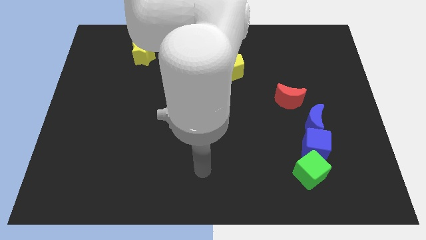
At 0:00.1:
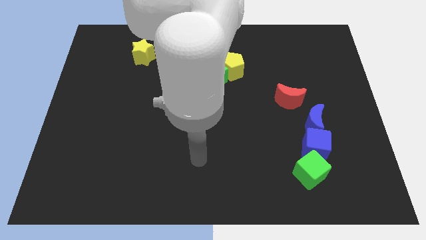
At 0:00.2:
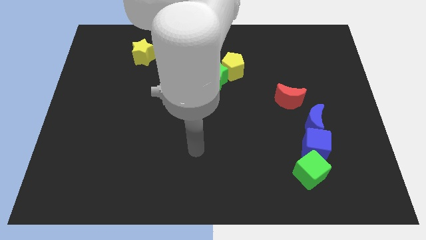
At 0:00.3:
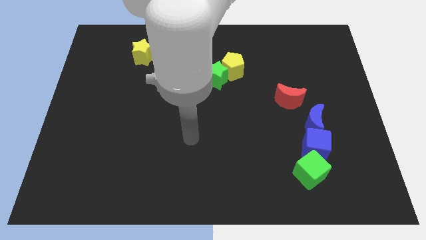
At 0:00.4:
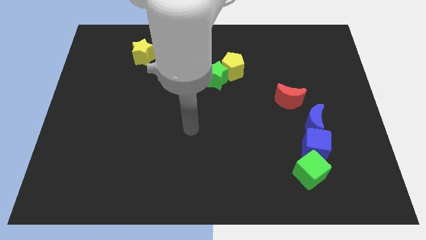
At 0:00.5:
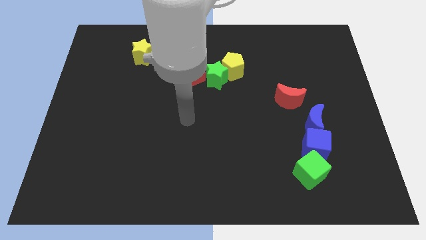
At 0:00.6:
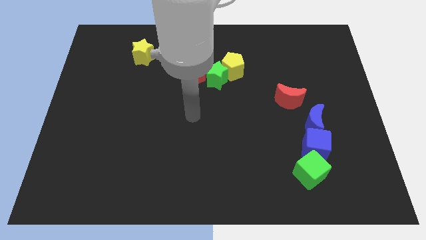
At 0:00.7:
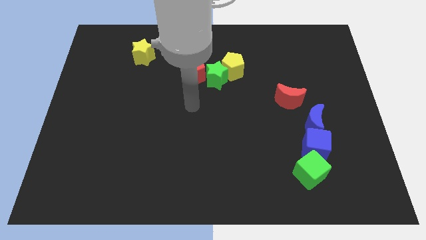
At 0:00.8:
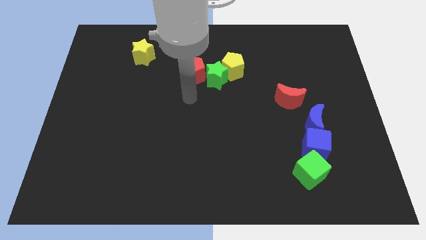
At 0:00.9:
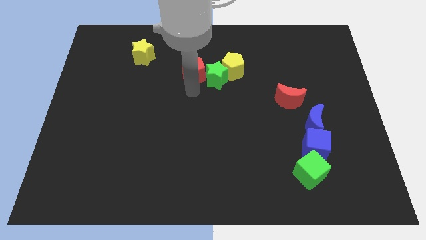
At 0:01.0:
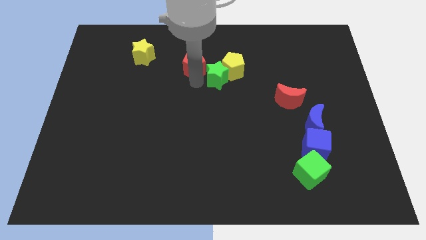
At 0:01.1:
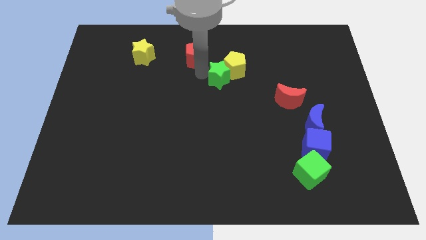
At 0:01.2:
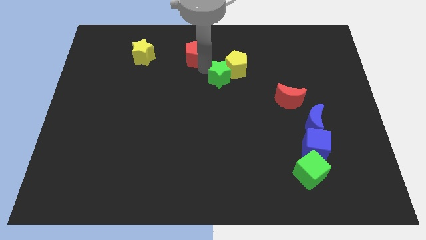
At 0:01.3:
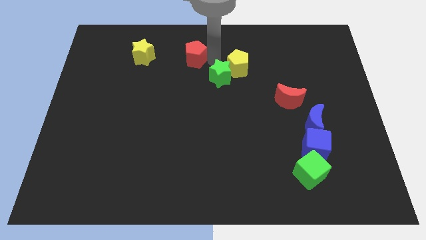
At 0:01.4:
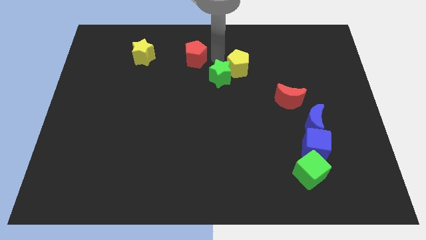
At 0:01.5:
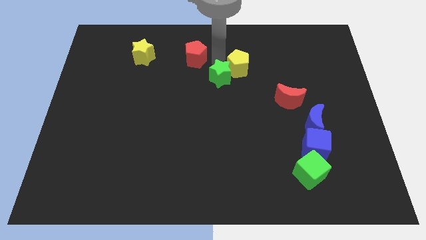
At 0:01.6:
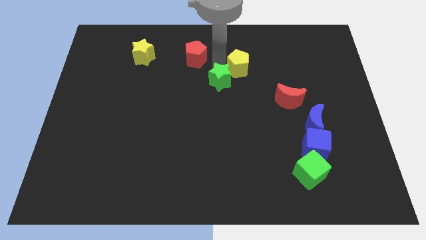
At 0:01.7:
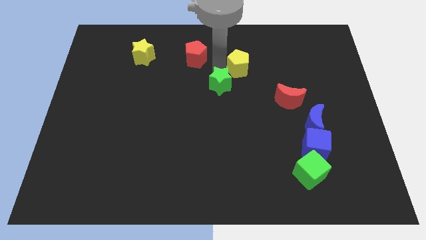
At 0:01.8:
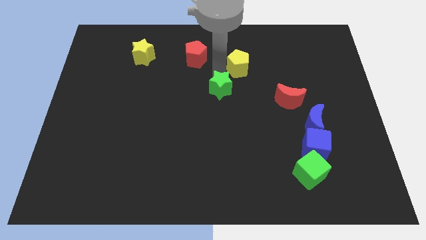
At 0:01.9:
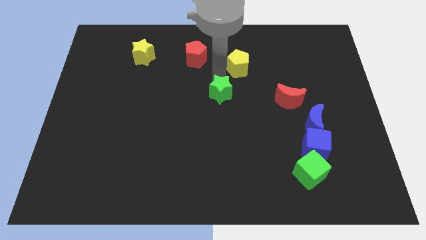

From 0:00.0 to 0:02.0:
move the green star away from the yellow pentagon and red pentagon

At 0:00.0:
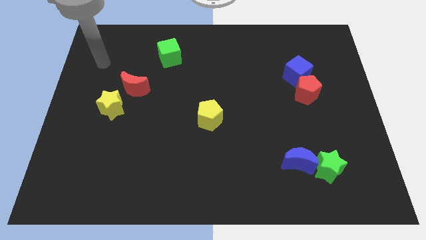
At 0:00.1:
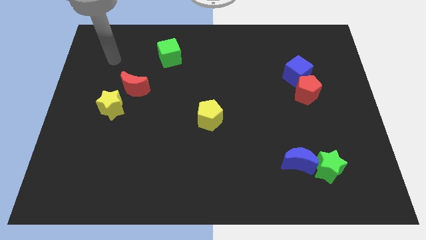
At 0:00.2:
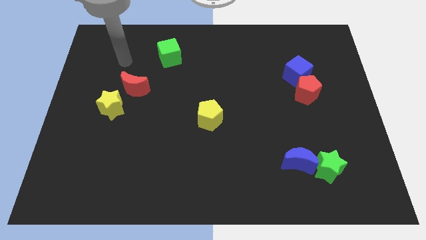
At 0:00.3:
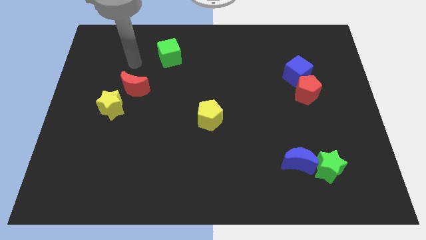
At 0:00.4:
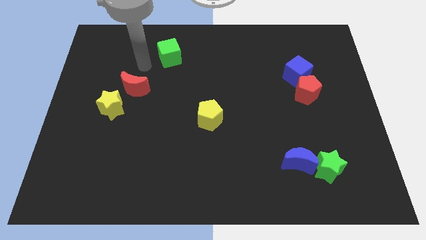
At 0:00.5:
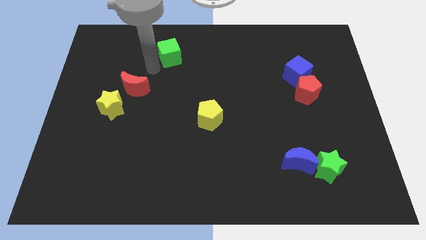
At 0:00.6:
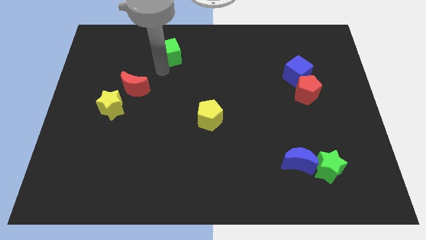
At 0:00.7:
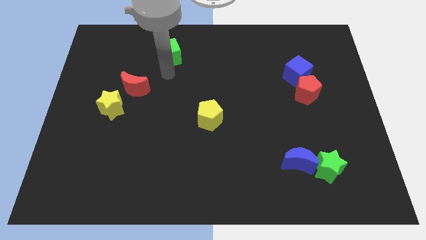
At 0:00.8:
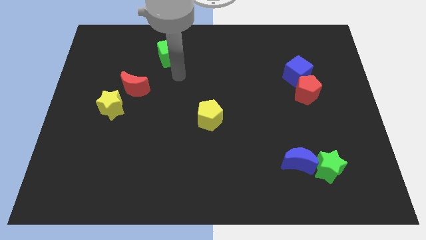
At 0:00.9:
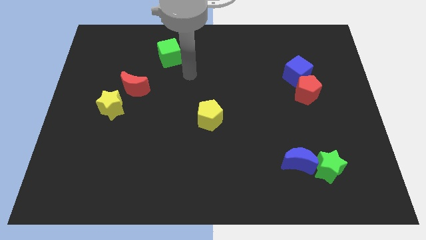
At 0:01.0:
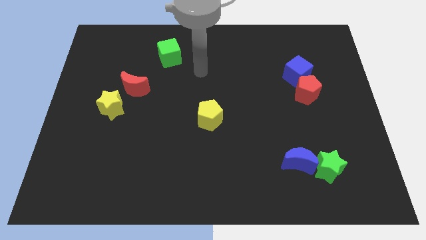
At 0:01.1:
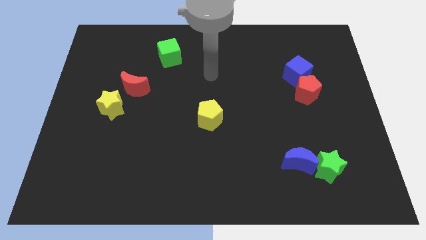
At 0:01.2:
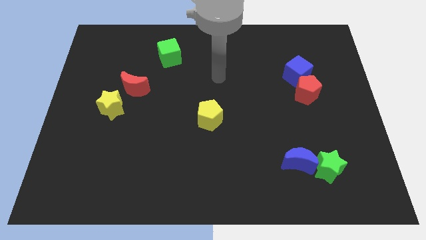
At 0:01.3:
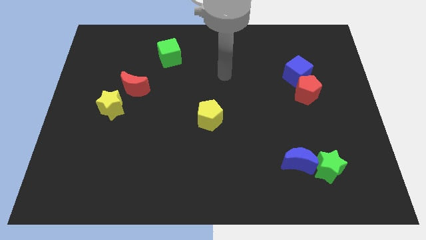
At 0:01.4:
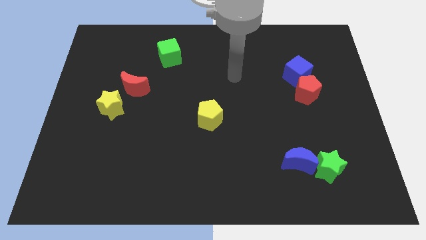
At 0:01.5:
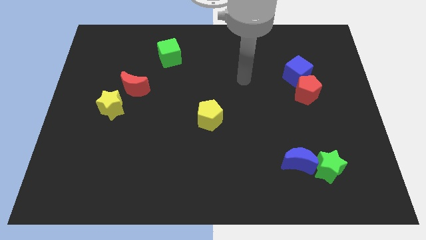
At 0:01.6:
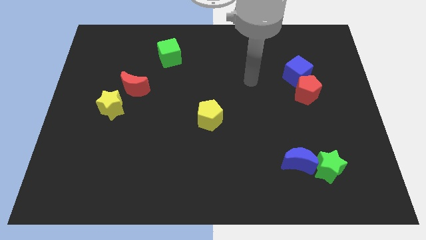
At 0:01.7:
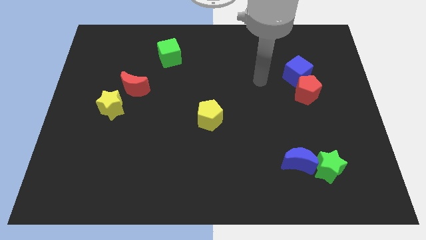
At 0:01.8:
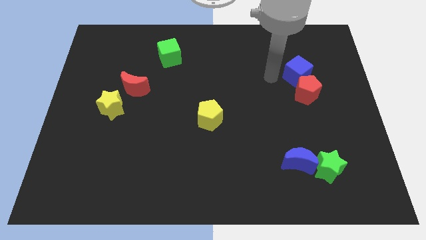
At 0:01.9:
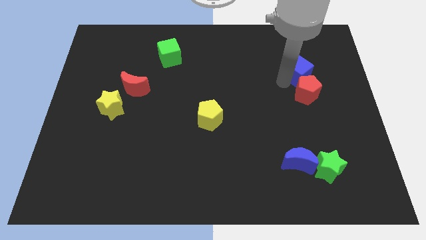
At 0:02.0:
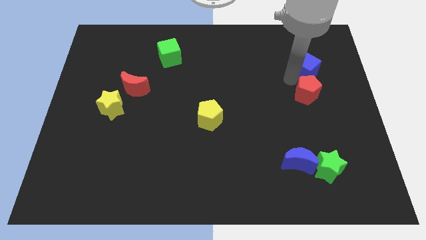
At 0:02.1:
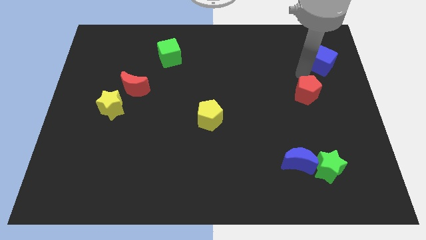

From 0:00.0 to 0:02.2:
move the red pentagon away from the blue cube

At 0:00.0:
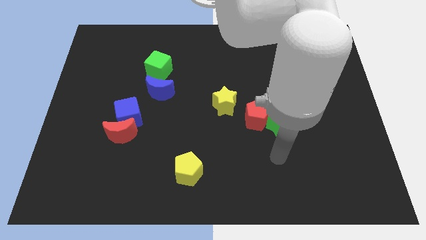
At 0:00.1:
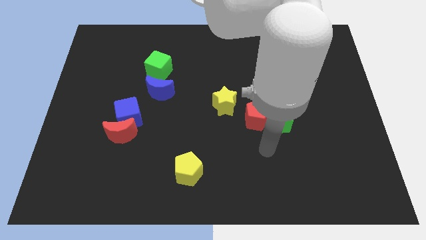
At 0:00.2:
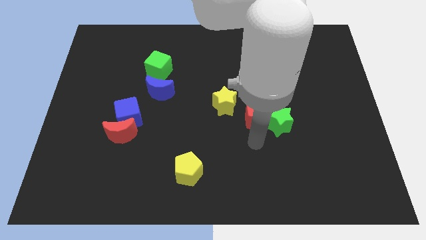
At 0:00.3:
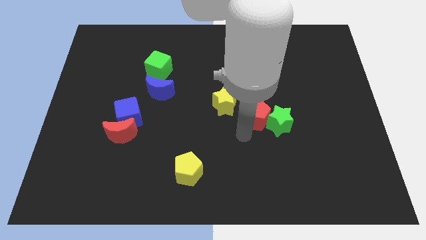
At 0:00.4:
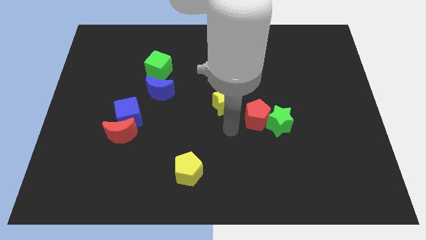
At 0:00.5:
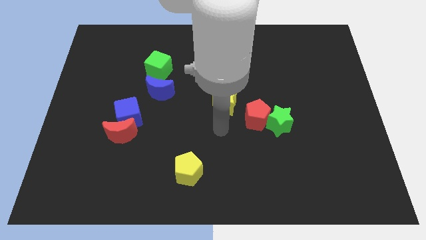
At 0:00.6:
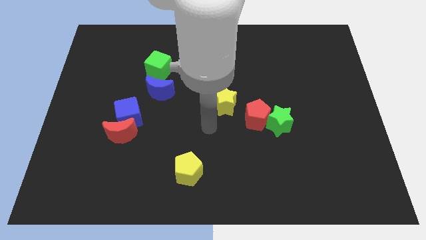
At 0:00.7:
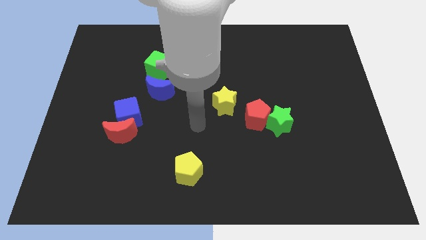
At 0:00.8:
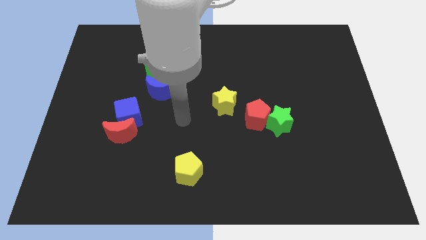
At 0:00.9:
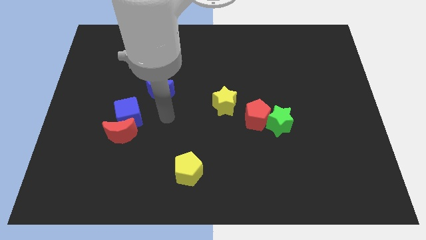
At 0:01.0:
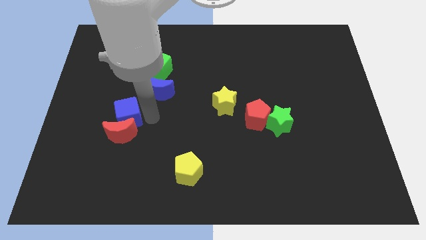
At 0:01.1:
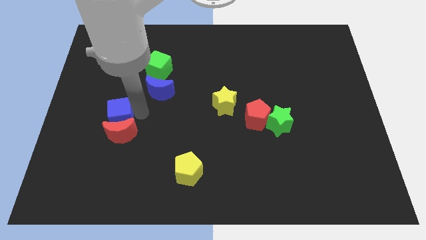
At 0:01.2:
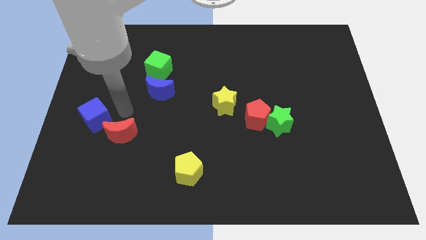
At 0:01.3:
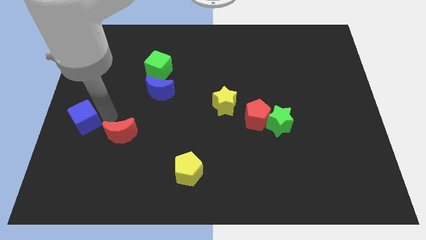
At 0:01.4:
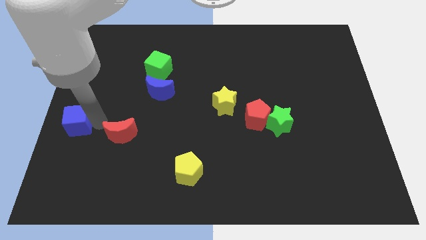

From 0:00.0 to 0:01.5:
move the red moon away from the blue cube

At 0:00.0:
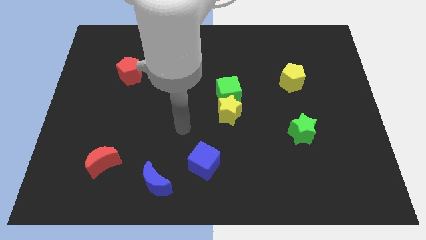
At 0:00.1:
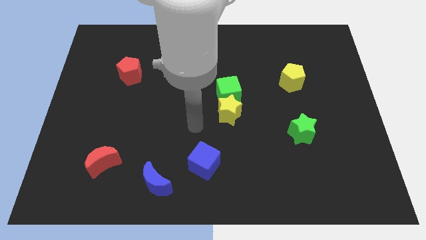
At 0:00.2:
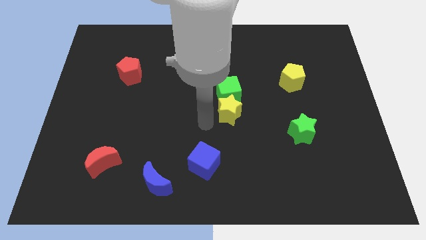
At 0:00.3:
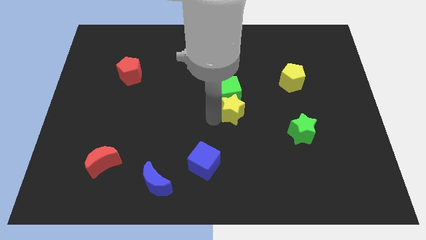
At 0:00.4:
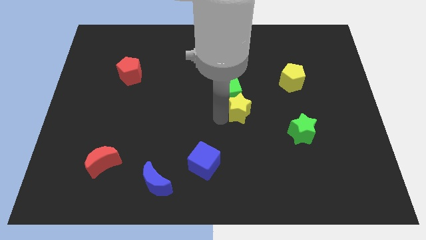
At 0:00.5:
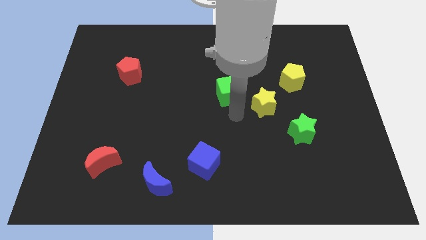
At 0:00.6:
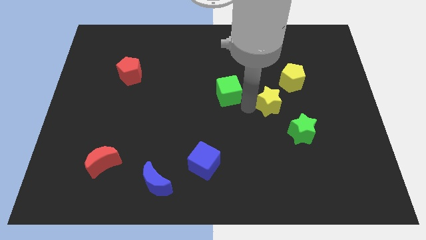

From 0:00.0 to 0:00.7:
move the green cube away from the yellow star

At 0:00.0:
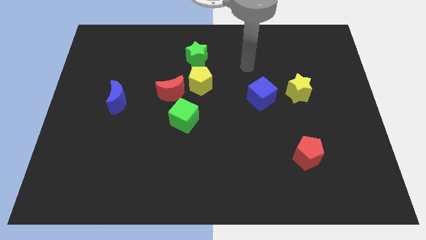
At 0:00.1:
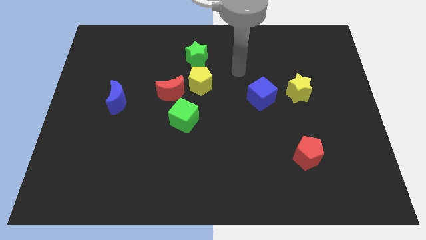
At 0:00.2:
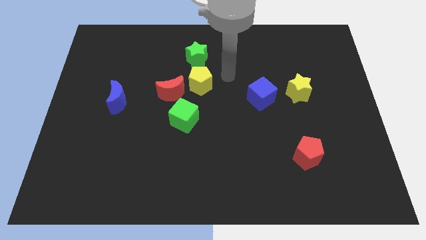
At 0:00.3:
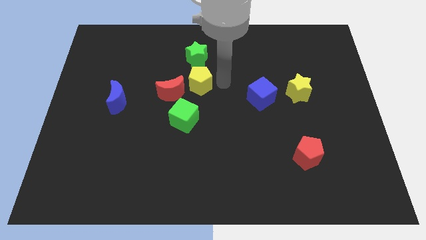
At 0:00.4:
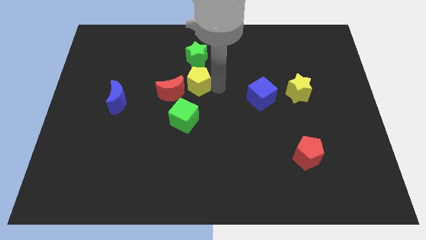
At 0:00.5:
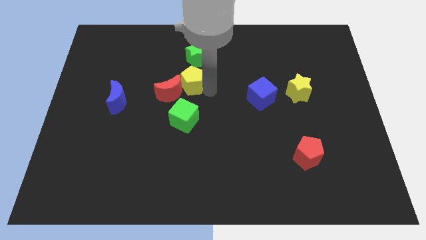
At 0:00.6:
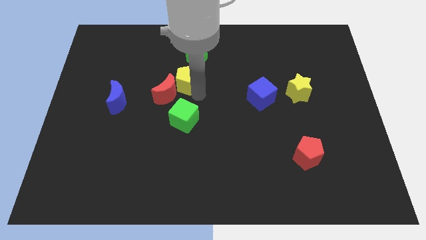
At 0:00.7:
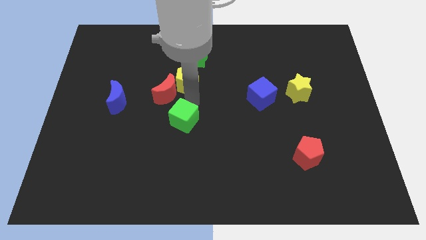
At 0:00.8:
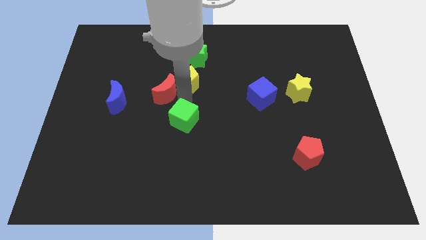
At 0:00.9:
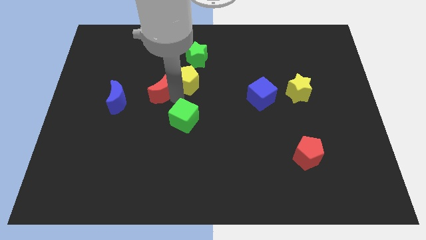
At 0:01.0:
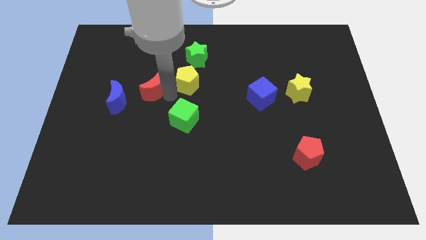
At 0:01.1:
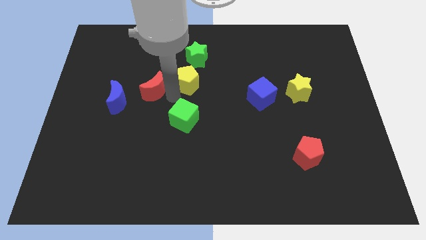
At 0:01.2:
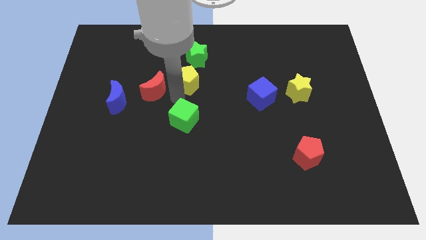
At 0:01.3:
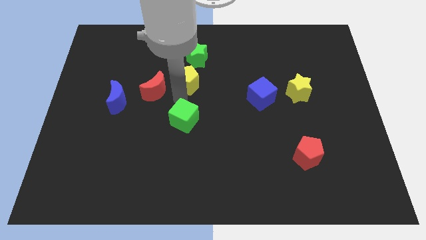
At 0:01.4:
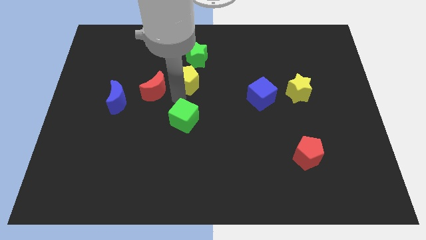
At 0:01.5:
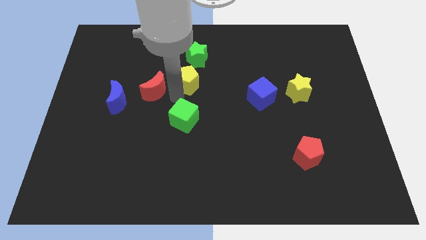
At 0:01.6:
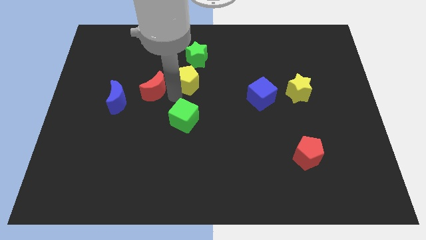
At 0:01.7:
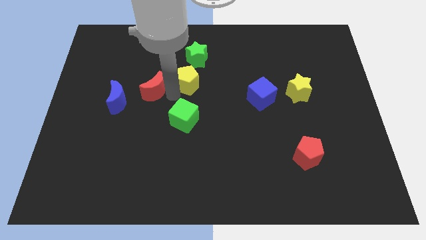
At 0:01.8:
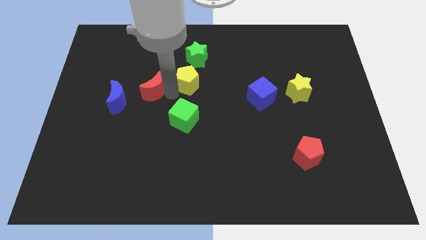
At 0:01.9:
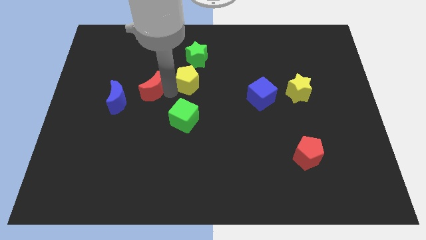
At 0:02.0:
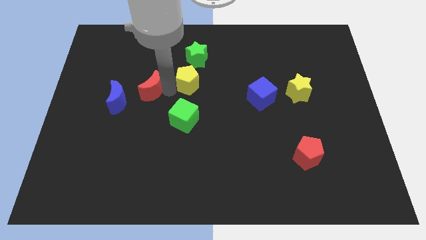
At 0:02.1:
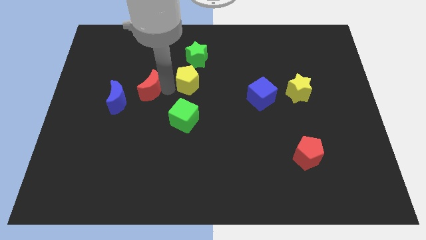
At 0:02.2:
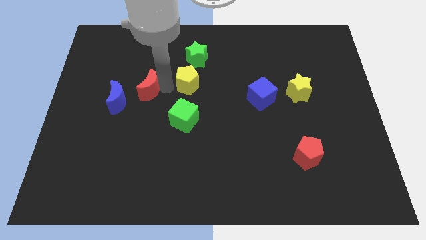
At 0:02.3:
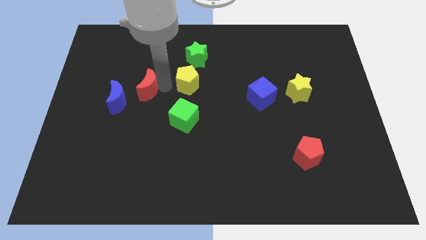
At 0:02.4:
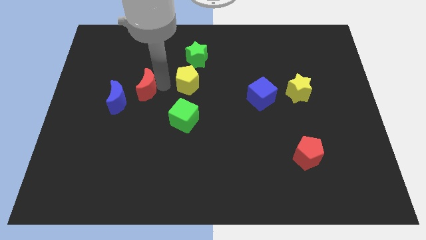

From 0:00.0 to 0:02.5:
move the red moon away from the yellow pentagon and green cube

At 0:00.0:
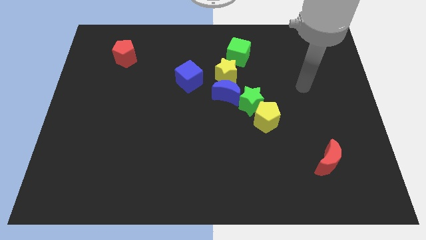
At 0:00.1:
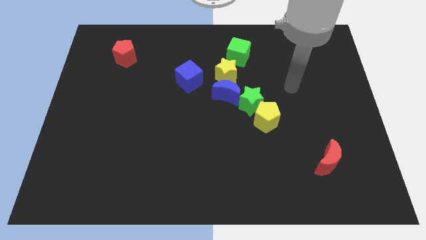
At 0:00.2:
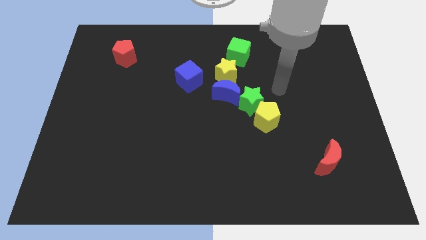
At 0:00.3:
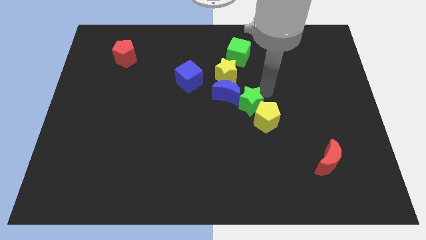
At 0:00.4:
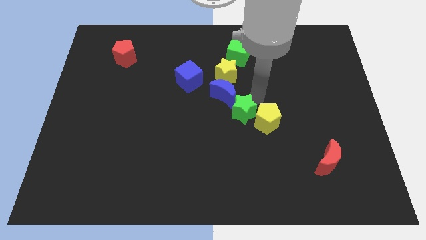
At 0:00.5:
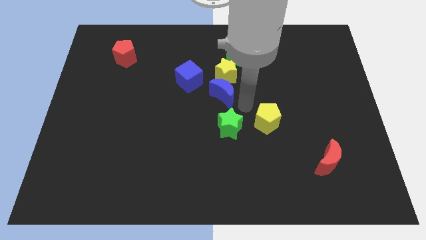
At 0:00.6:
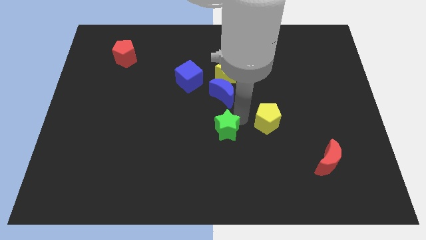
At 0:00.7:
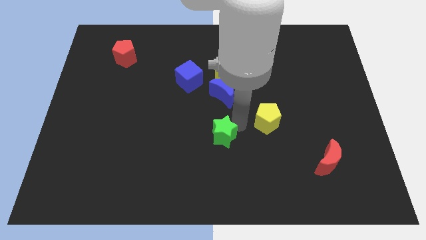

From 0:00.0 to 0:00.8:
separate the yellow pentagon from the green star
